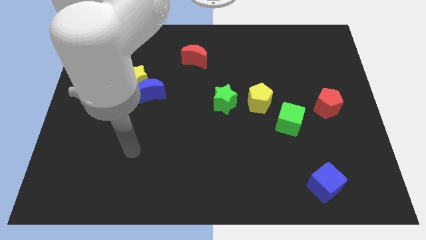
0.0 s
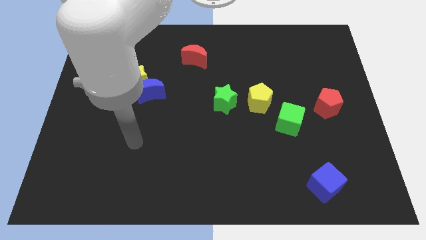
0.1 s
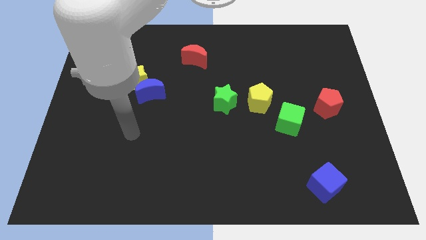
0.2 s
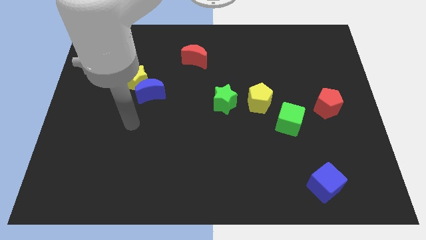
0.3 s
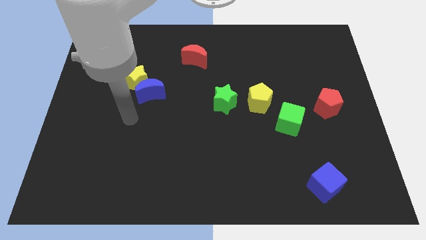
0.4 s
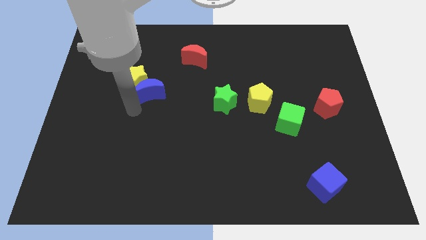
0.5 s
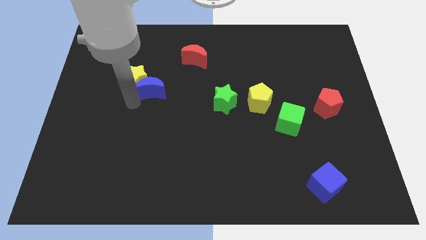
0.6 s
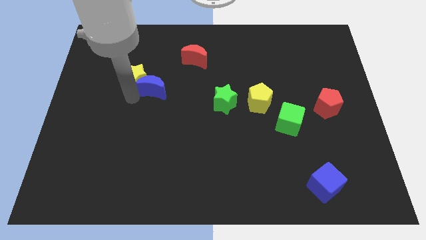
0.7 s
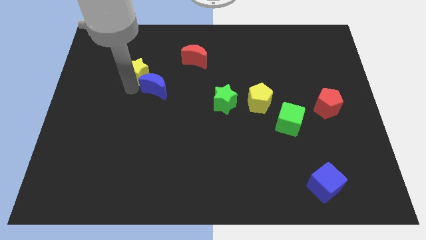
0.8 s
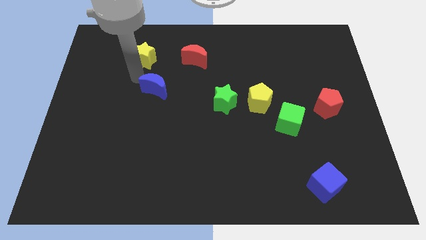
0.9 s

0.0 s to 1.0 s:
separate the blue moon from the yellow star

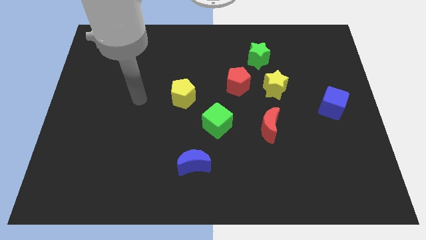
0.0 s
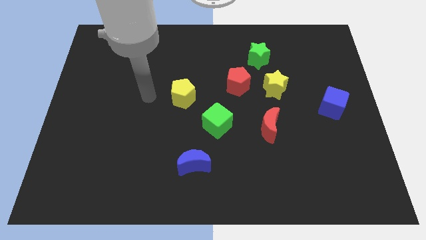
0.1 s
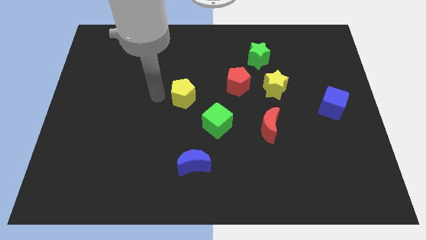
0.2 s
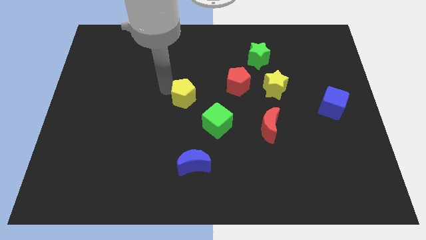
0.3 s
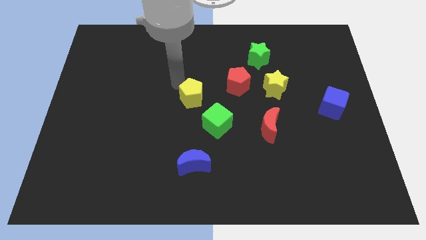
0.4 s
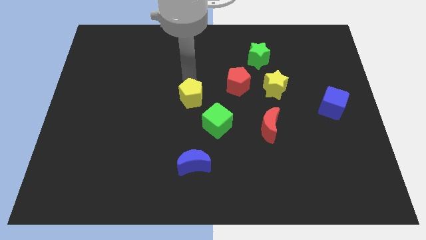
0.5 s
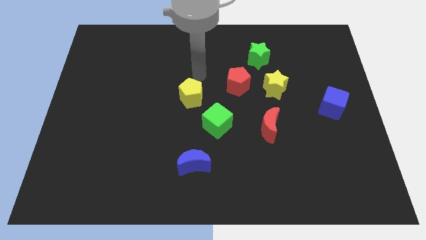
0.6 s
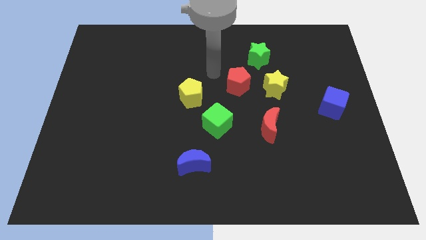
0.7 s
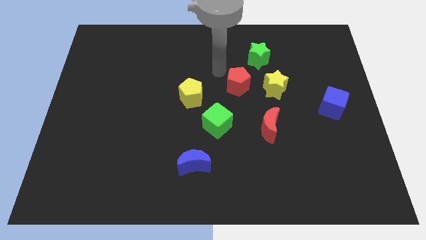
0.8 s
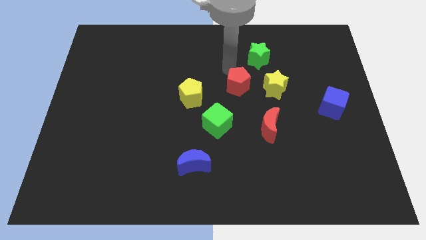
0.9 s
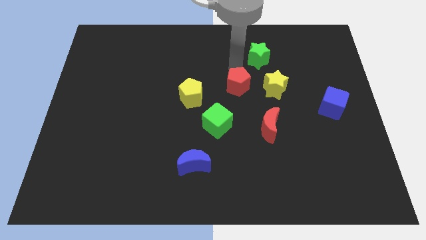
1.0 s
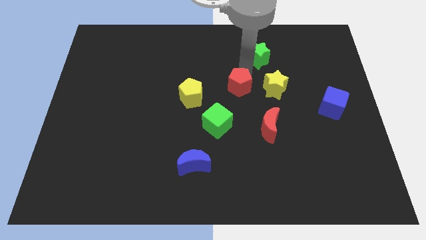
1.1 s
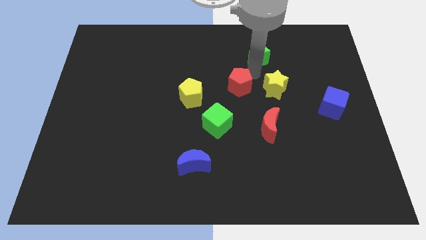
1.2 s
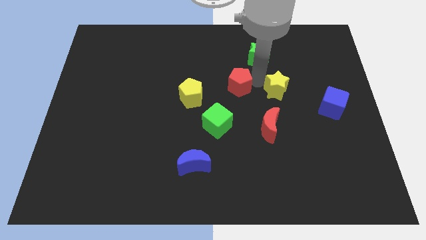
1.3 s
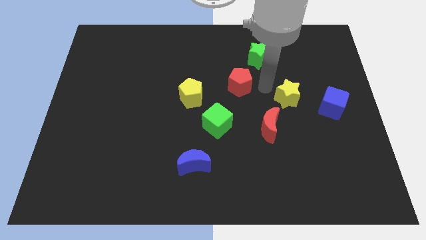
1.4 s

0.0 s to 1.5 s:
move the red pentagon away from the yellow star

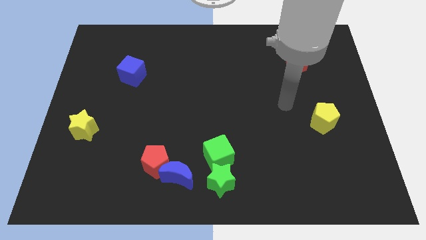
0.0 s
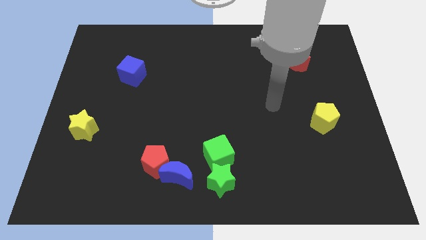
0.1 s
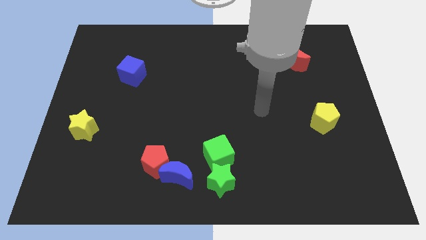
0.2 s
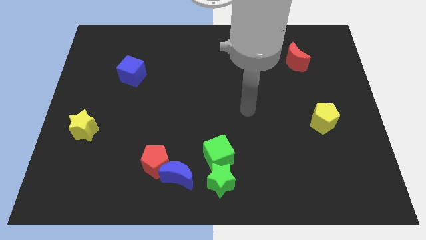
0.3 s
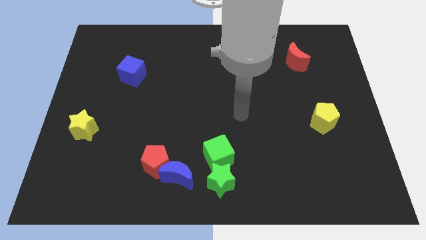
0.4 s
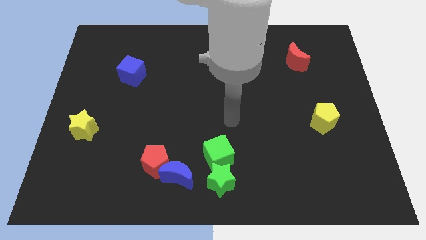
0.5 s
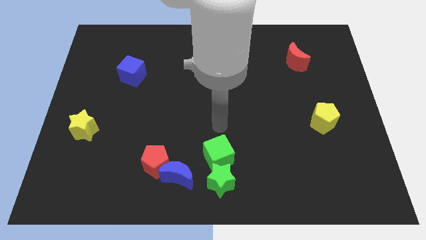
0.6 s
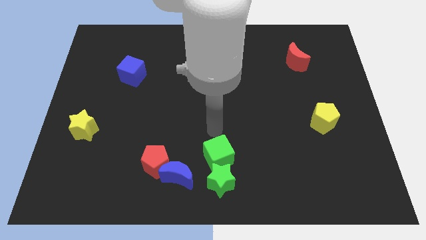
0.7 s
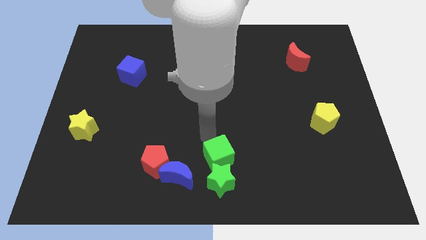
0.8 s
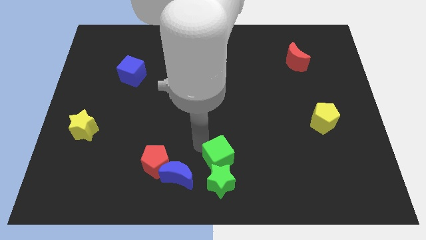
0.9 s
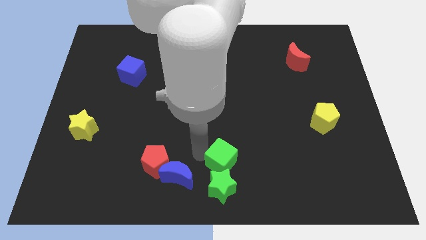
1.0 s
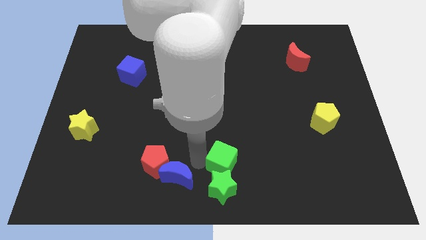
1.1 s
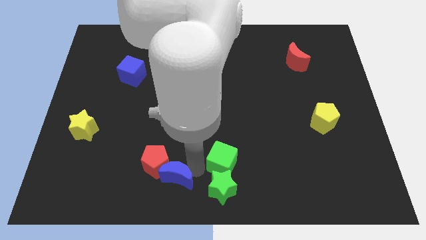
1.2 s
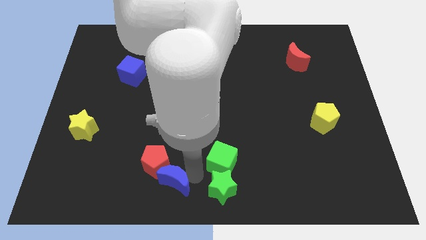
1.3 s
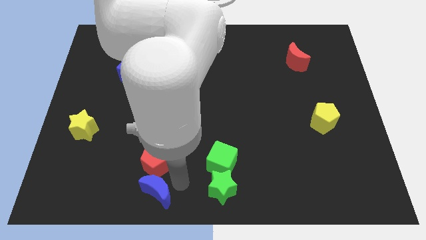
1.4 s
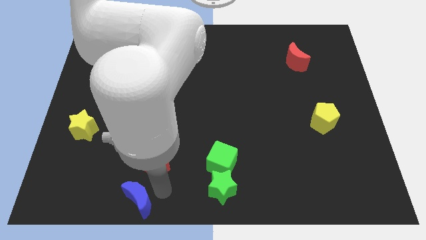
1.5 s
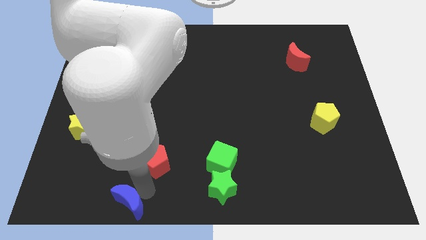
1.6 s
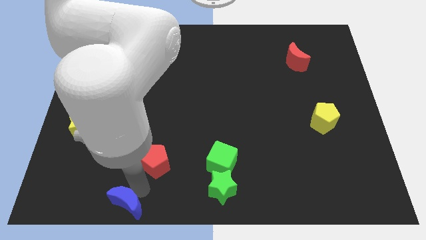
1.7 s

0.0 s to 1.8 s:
move the red pentagon away from the blue moon

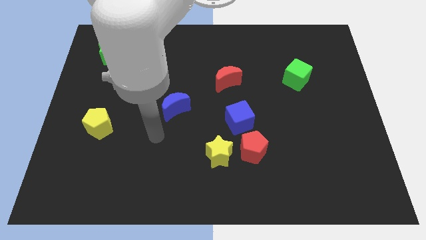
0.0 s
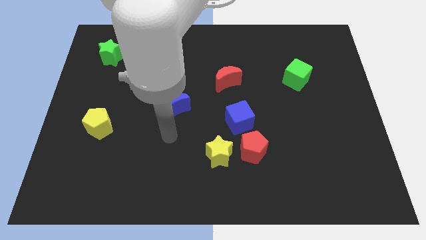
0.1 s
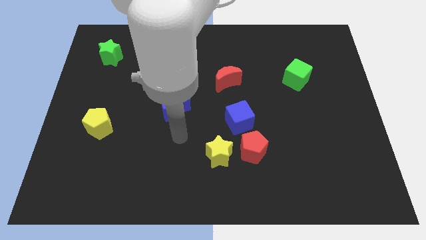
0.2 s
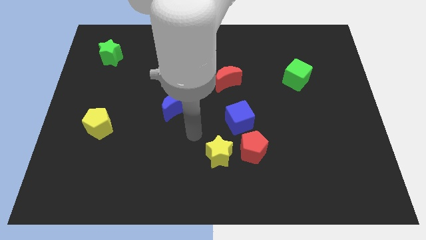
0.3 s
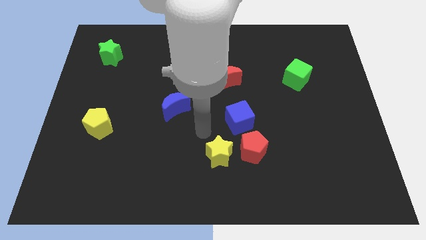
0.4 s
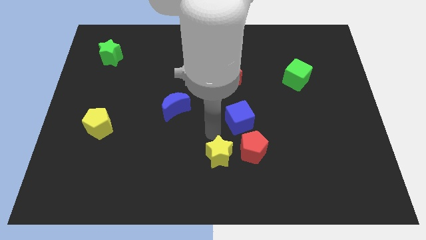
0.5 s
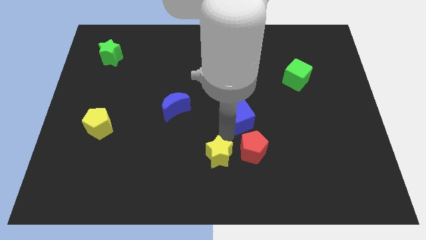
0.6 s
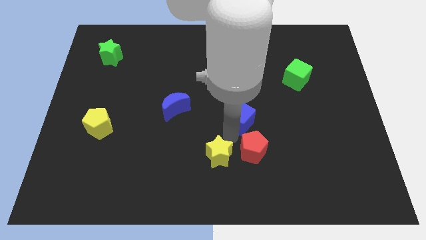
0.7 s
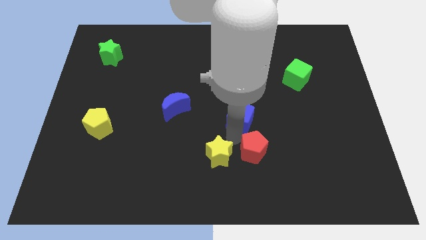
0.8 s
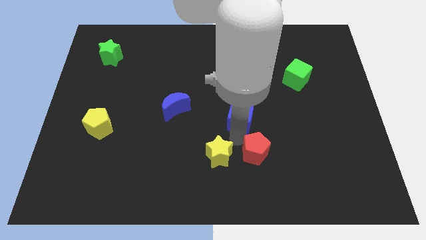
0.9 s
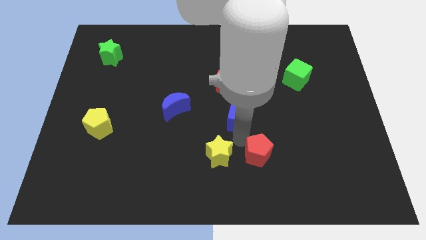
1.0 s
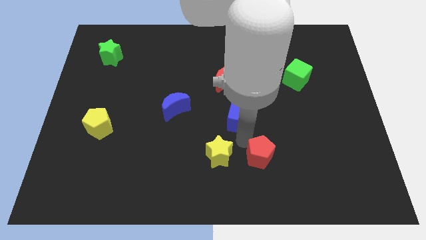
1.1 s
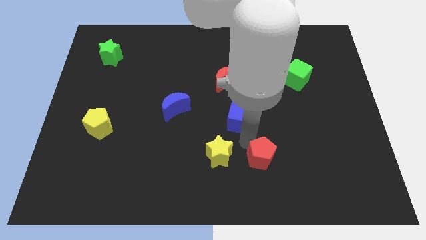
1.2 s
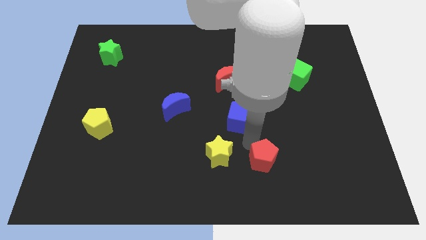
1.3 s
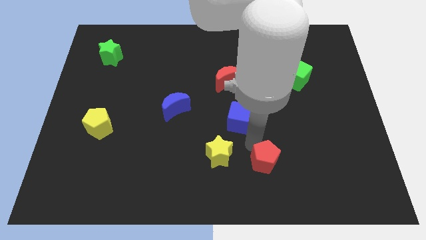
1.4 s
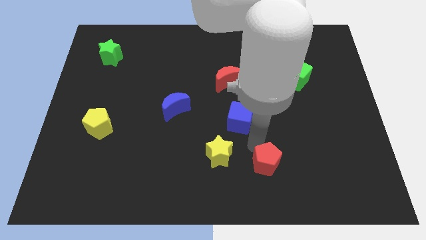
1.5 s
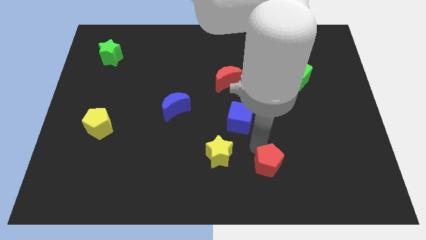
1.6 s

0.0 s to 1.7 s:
pull the red pentagon apart from the yellow star and blue cube

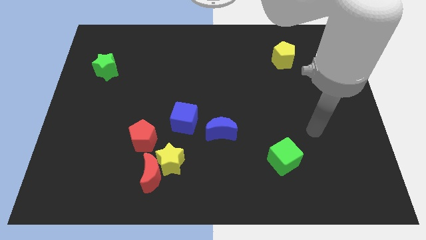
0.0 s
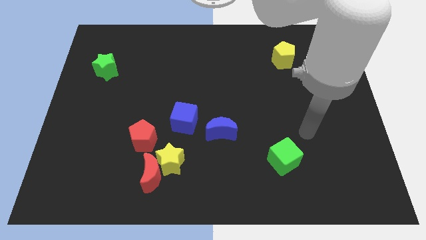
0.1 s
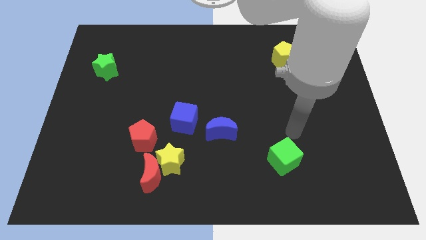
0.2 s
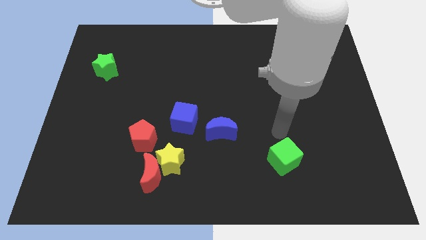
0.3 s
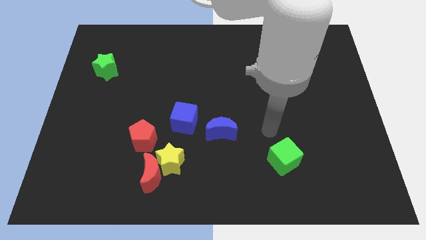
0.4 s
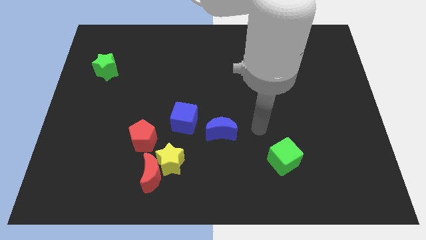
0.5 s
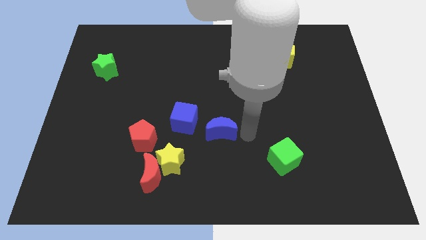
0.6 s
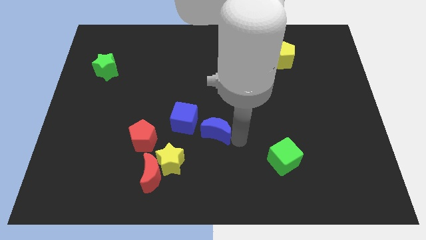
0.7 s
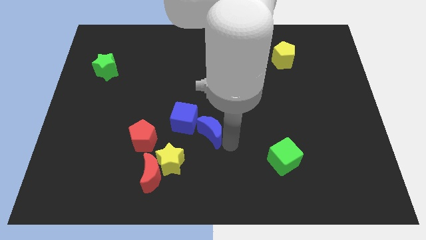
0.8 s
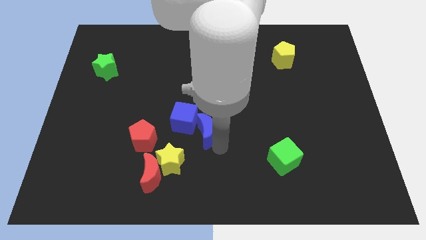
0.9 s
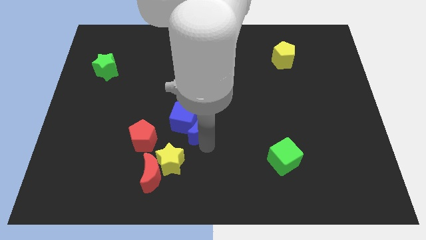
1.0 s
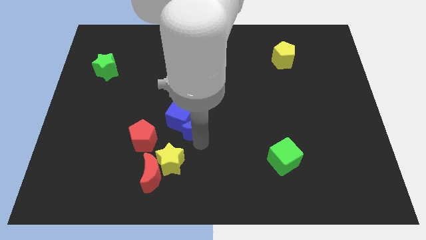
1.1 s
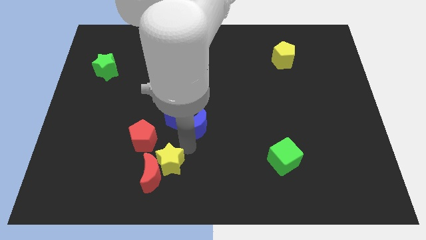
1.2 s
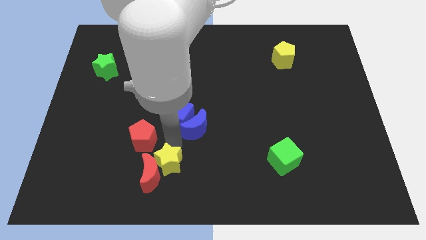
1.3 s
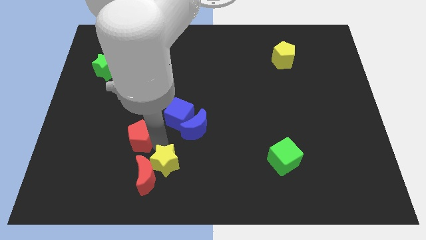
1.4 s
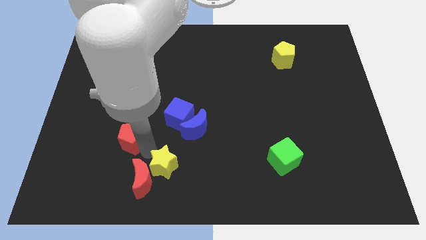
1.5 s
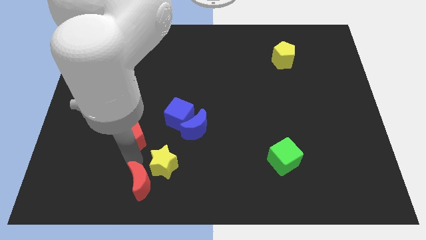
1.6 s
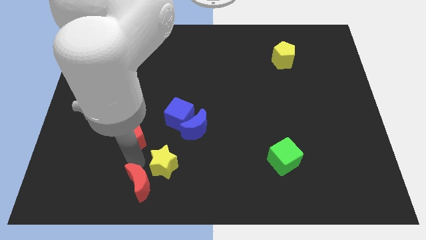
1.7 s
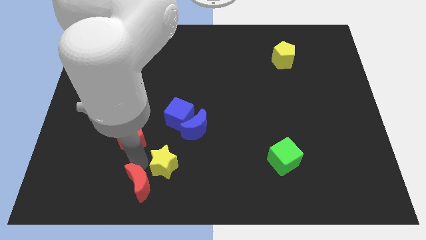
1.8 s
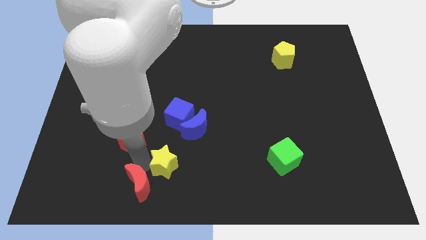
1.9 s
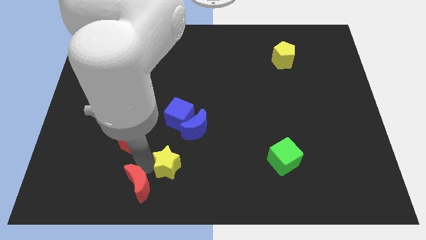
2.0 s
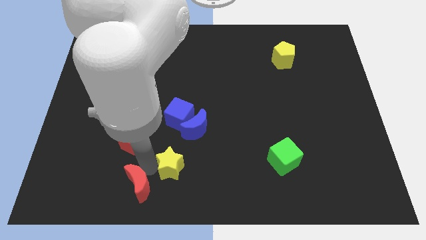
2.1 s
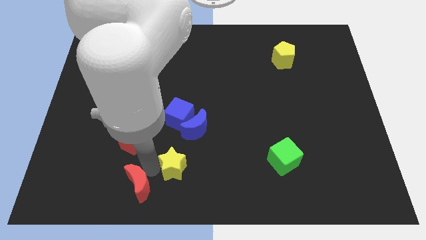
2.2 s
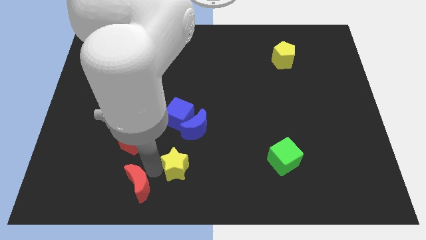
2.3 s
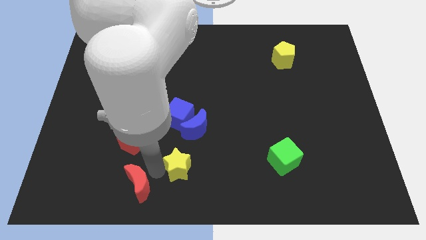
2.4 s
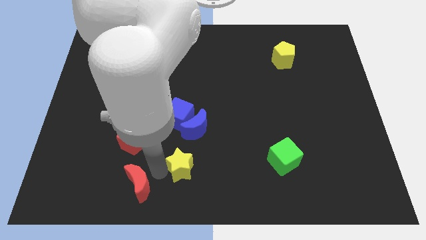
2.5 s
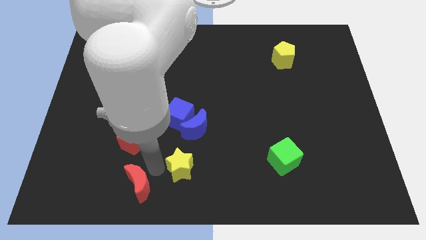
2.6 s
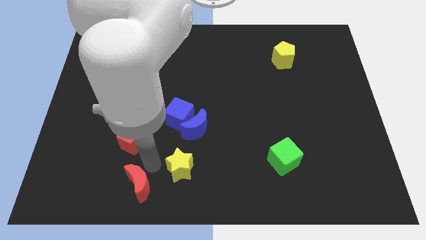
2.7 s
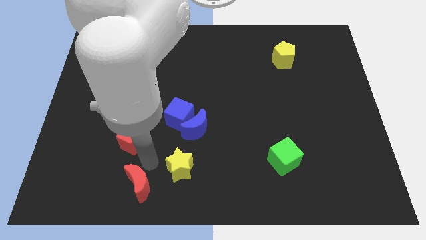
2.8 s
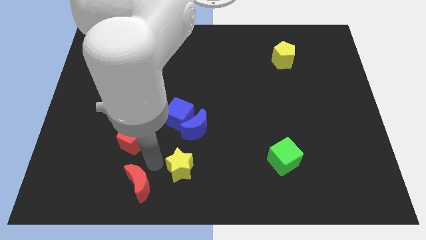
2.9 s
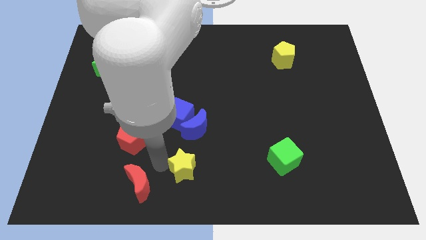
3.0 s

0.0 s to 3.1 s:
pull the yellow star apart from the red moon and red pentagon

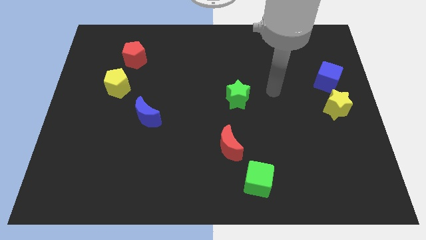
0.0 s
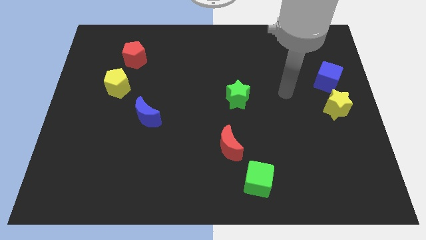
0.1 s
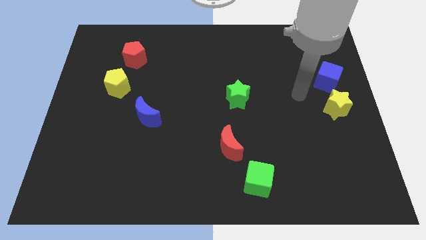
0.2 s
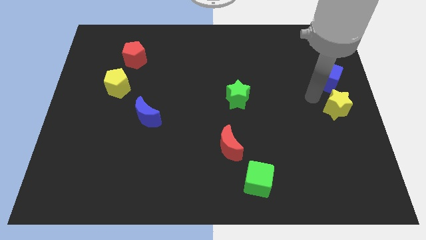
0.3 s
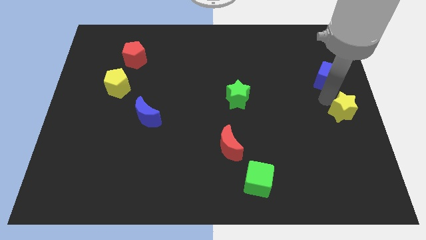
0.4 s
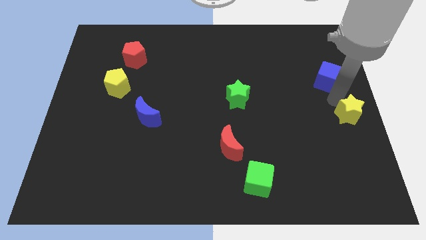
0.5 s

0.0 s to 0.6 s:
move the blue cube away from the yellow star
